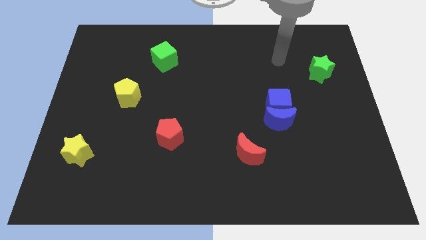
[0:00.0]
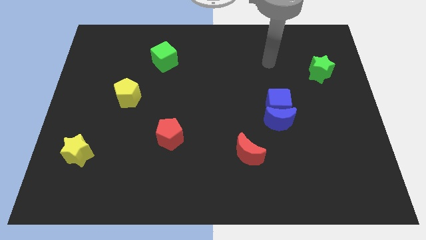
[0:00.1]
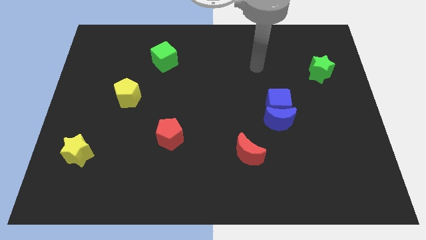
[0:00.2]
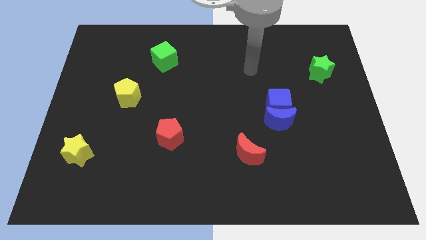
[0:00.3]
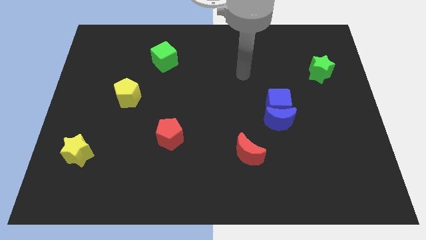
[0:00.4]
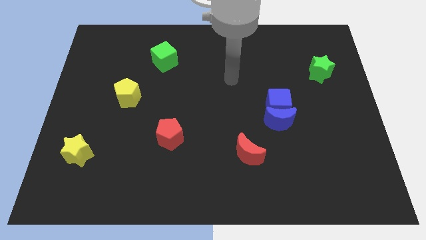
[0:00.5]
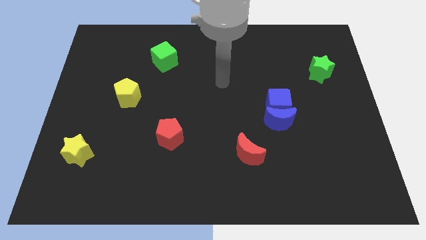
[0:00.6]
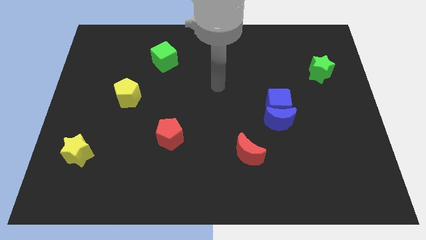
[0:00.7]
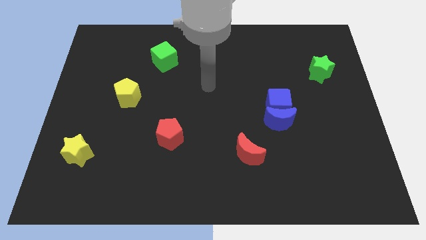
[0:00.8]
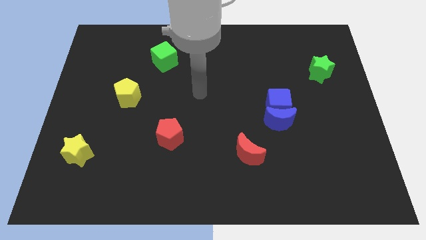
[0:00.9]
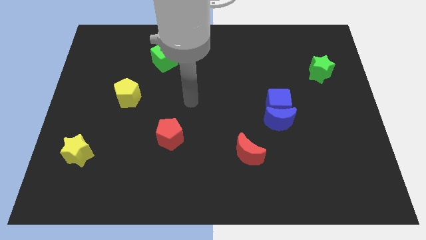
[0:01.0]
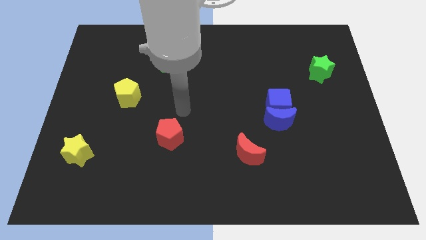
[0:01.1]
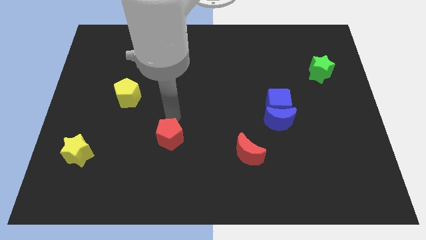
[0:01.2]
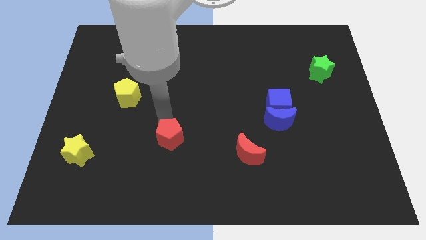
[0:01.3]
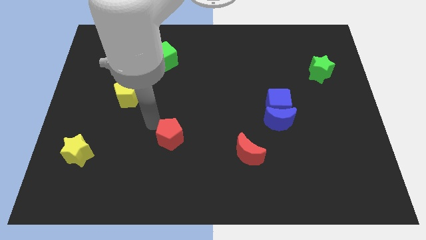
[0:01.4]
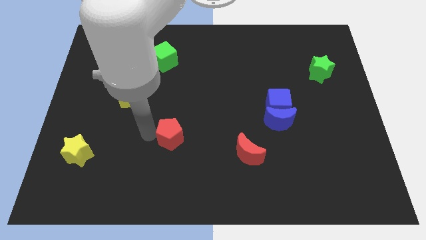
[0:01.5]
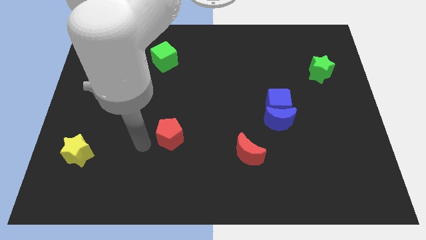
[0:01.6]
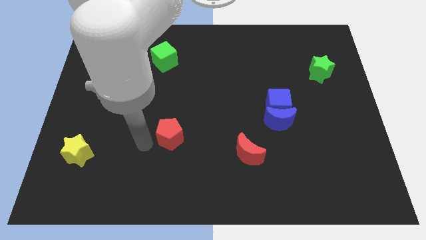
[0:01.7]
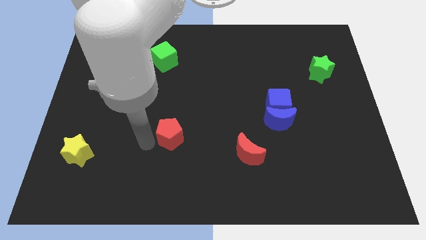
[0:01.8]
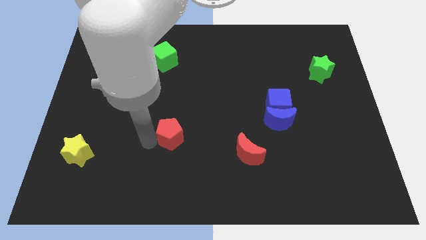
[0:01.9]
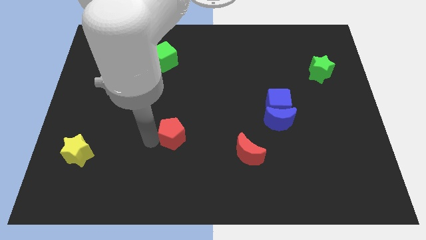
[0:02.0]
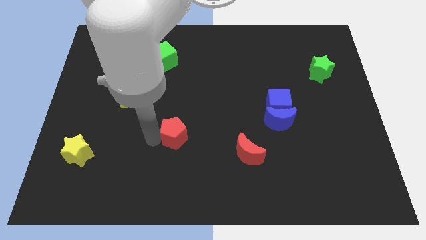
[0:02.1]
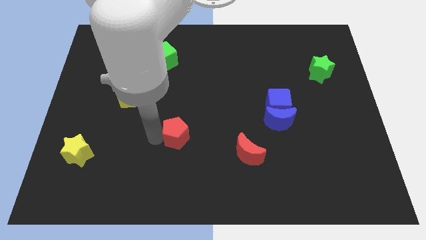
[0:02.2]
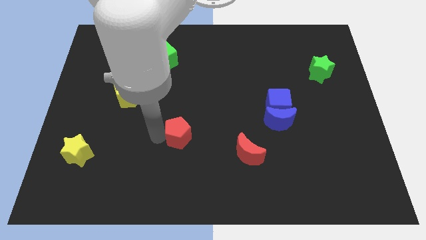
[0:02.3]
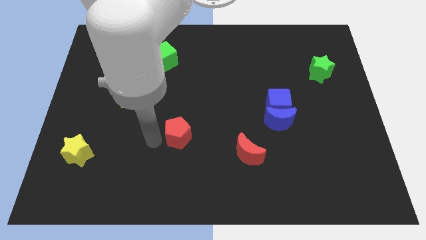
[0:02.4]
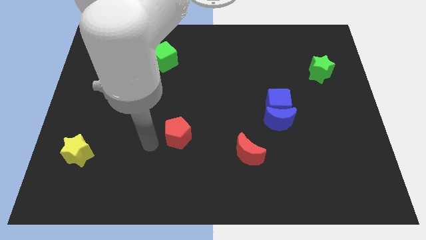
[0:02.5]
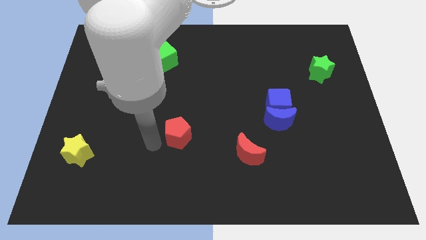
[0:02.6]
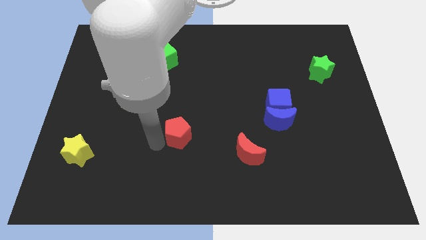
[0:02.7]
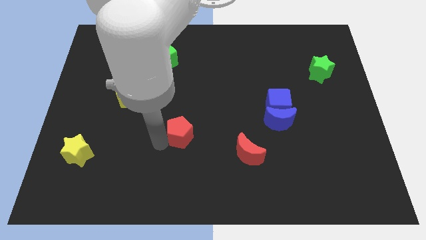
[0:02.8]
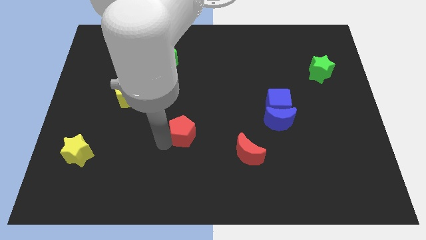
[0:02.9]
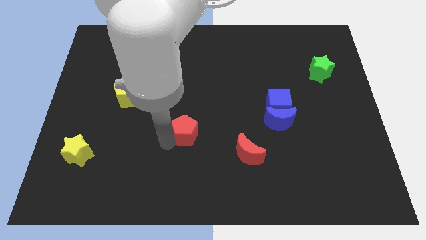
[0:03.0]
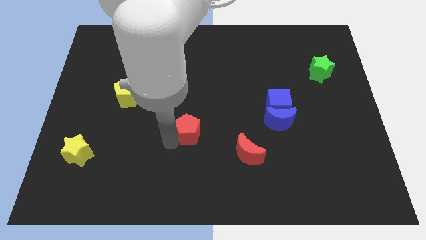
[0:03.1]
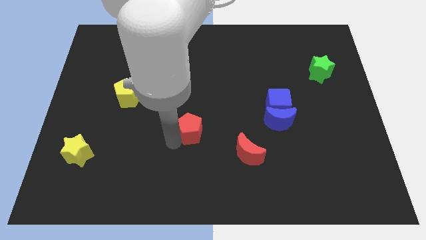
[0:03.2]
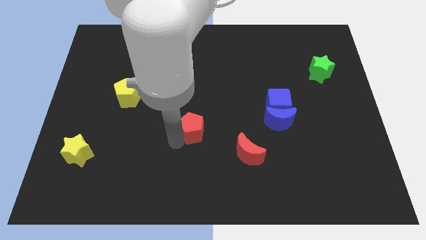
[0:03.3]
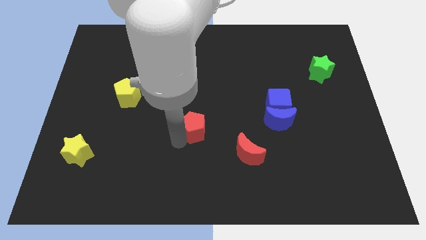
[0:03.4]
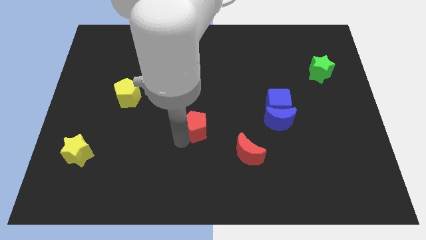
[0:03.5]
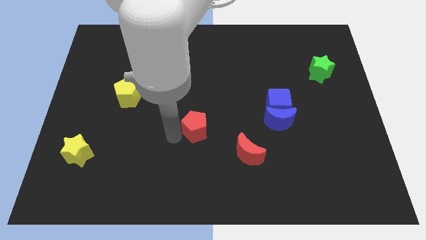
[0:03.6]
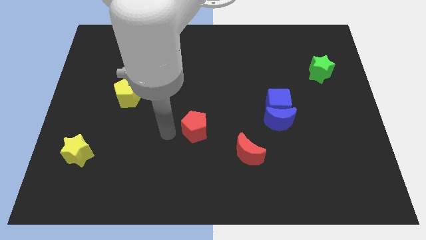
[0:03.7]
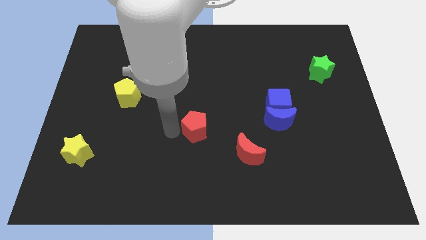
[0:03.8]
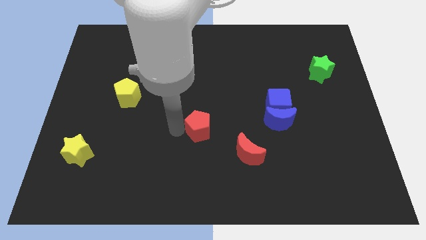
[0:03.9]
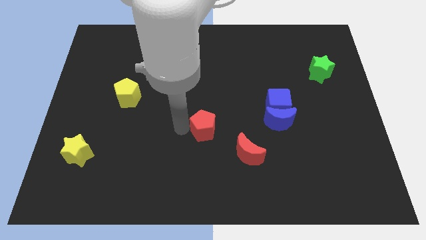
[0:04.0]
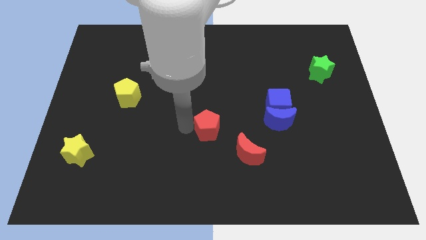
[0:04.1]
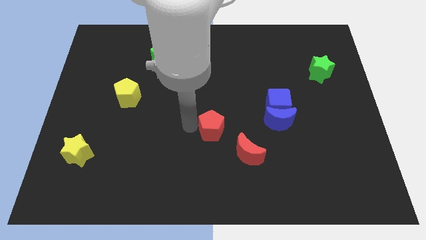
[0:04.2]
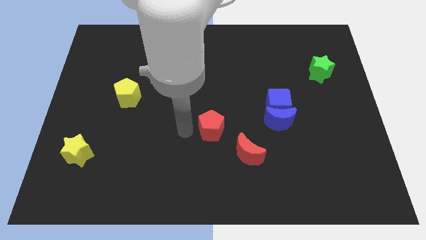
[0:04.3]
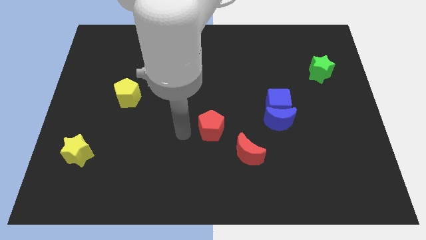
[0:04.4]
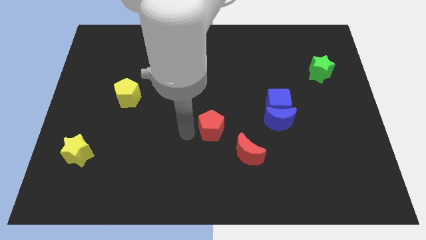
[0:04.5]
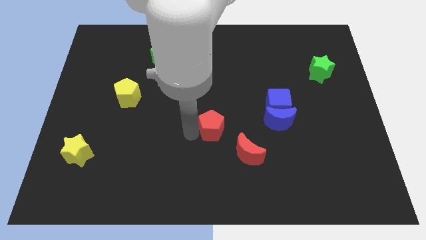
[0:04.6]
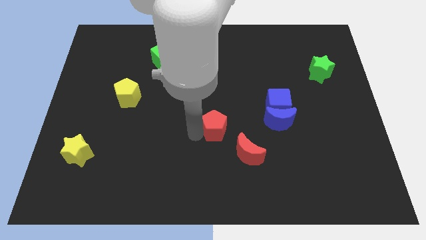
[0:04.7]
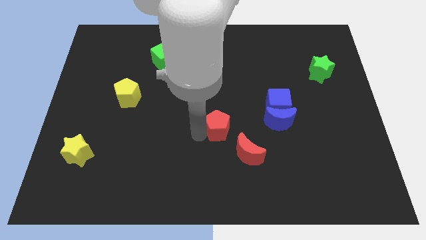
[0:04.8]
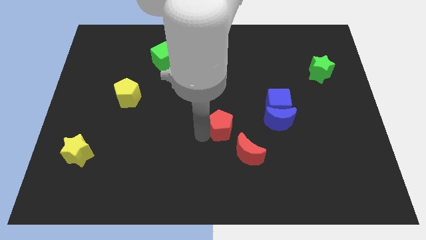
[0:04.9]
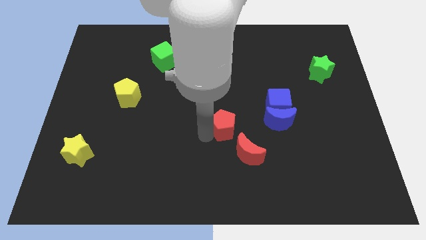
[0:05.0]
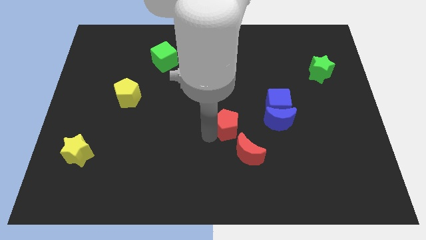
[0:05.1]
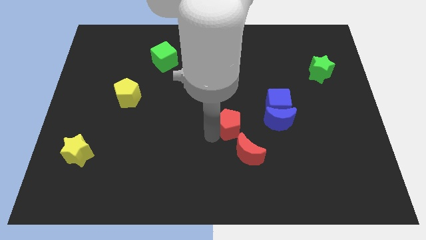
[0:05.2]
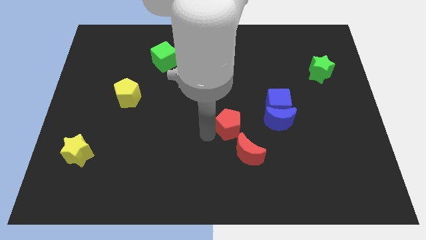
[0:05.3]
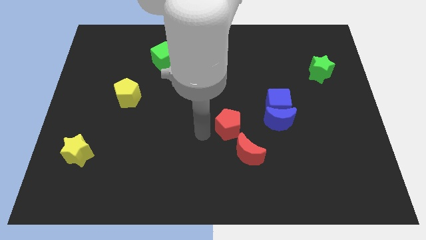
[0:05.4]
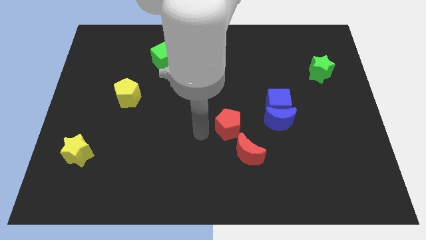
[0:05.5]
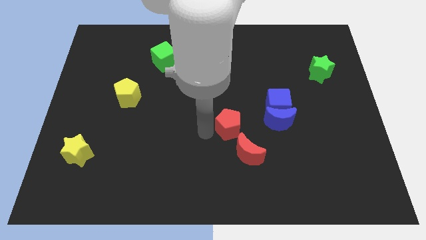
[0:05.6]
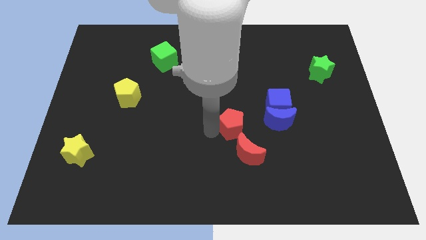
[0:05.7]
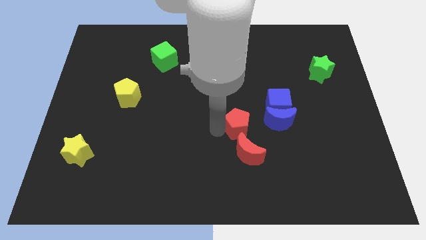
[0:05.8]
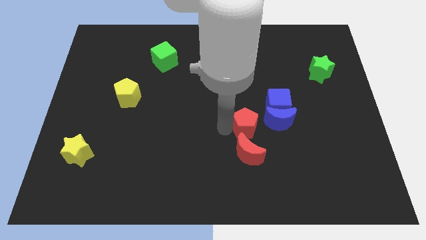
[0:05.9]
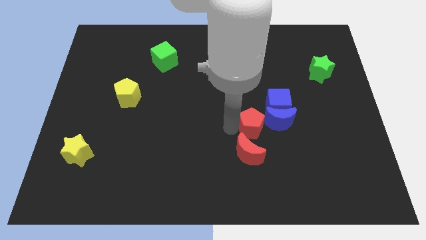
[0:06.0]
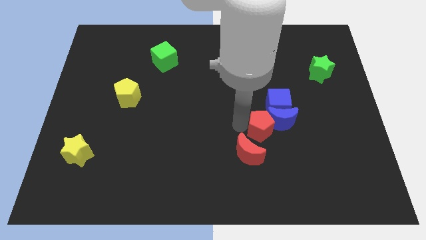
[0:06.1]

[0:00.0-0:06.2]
push the red pentagon to the bottom side of the blue cube
